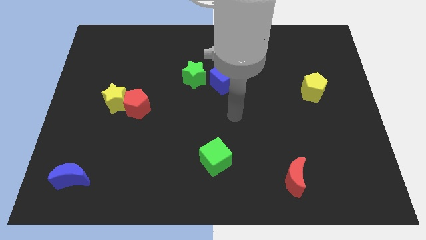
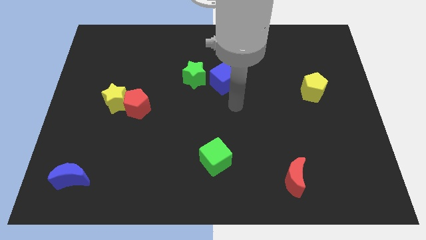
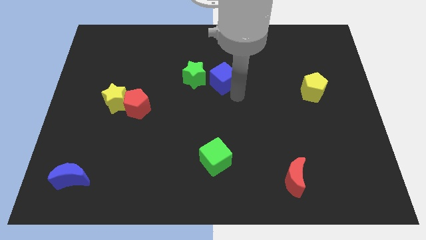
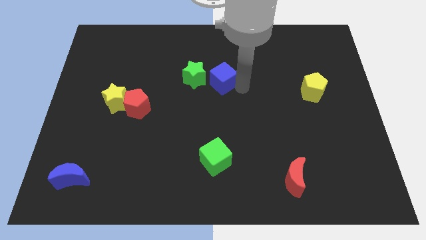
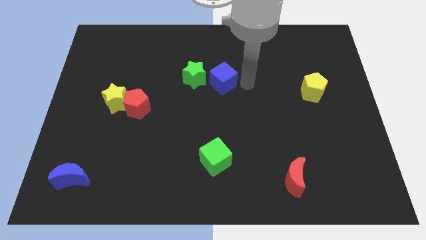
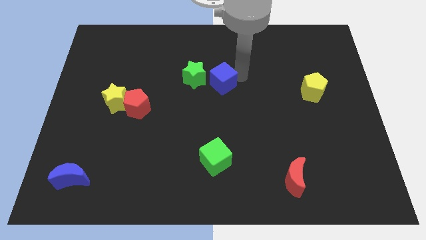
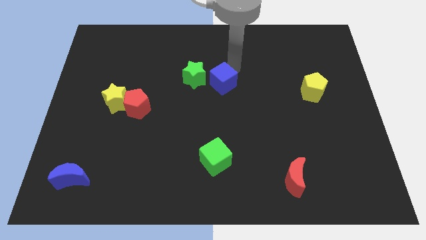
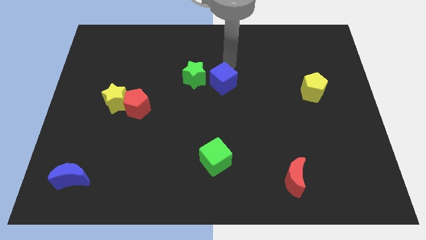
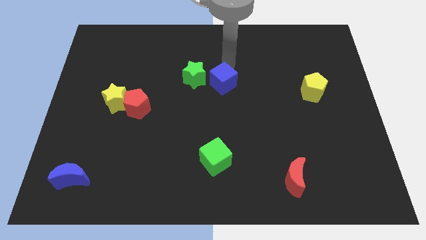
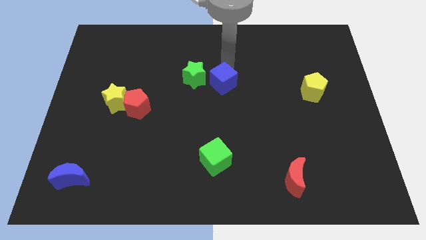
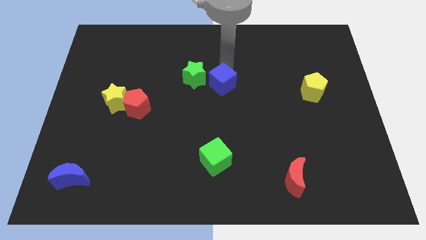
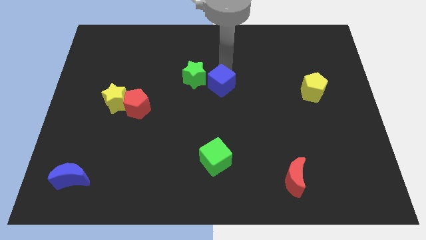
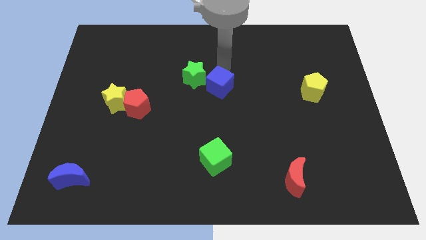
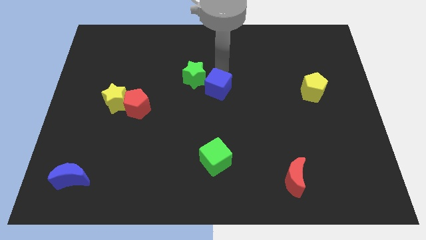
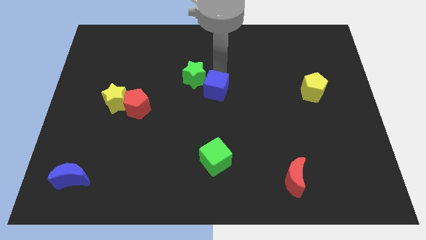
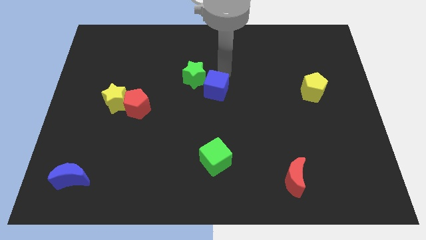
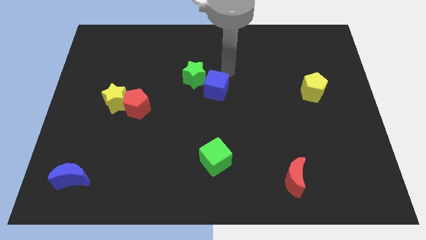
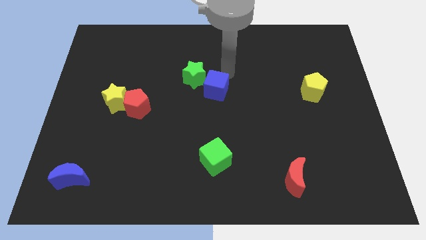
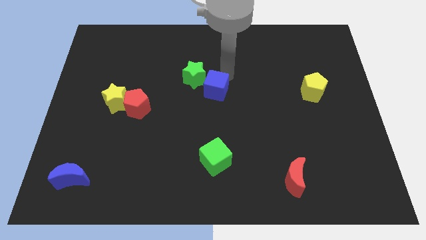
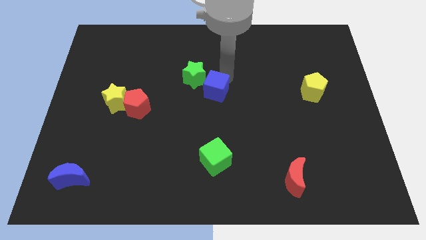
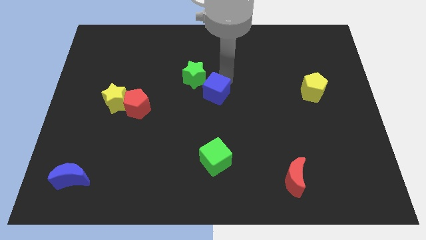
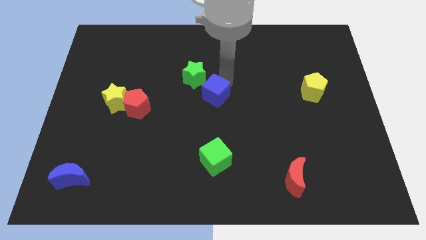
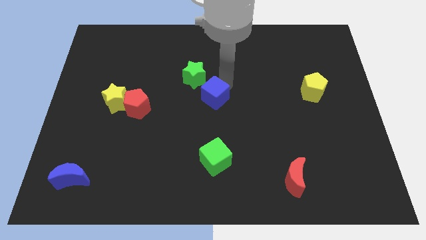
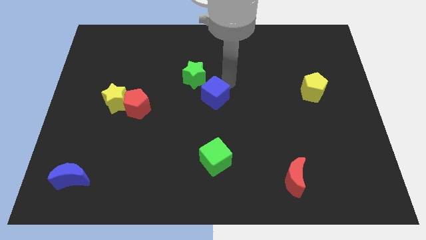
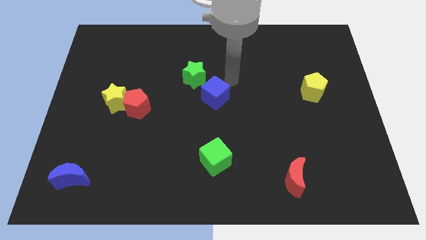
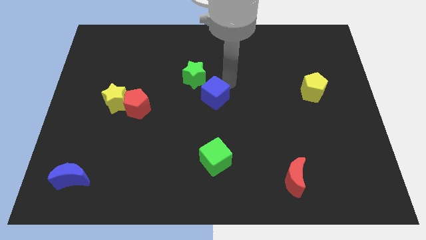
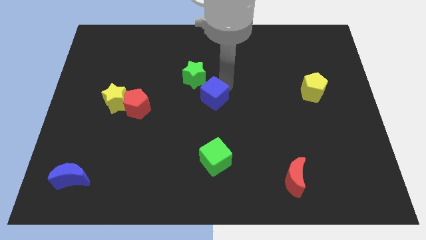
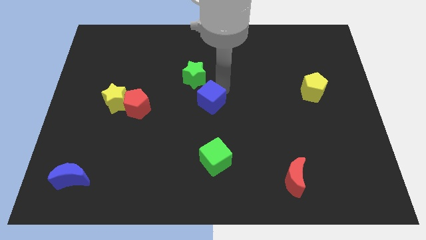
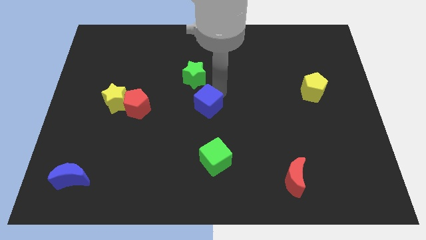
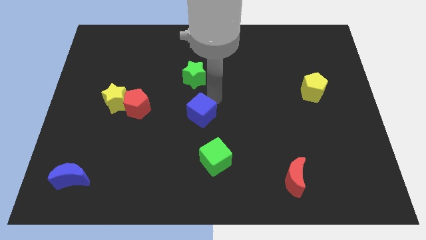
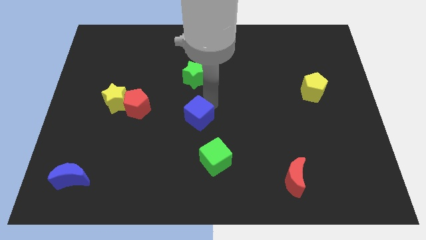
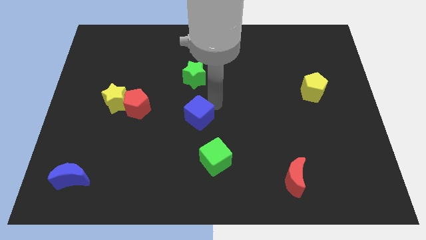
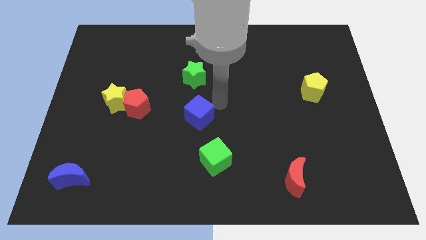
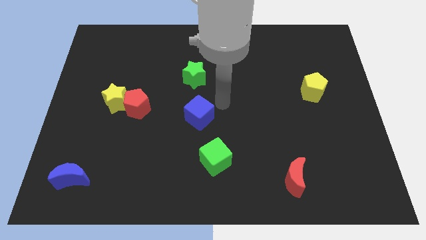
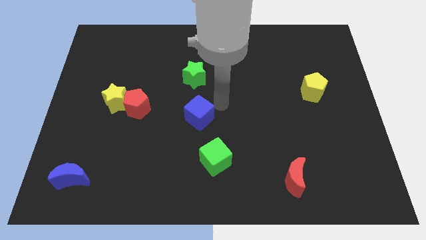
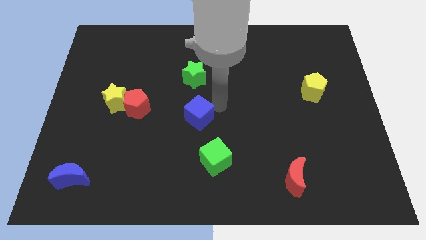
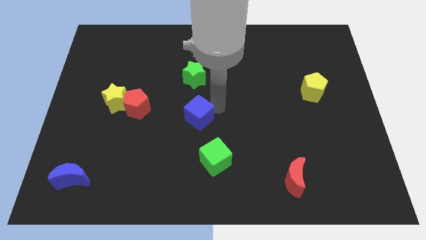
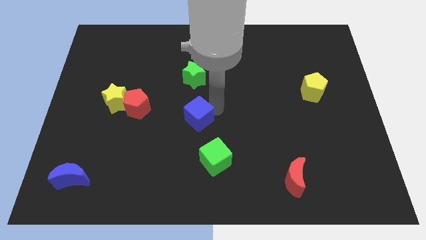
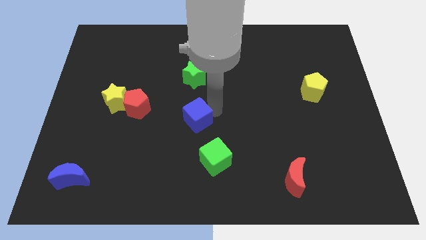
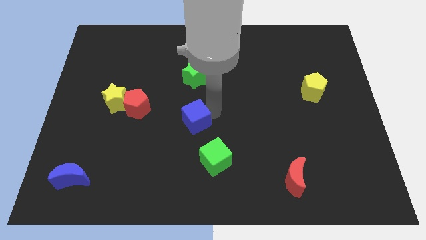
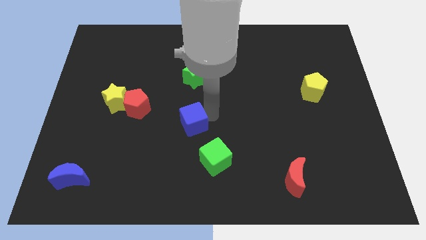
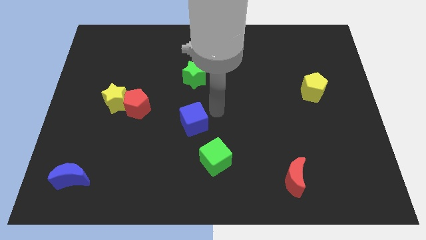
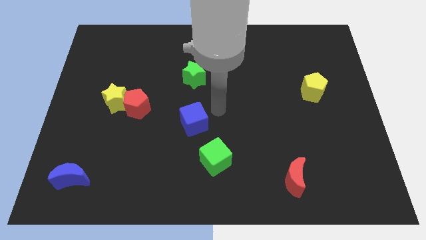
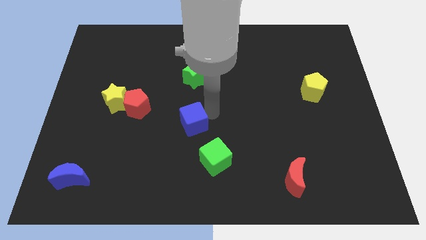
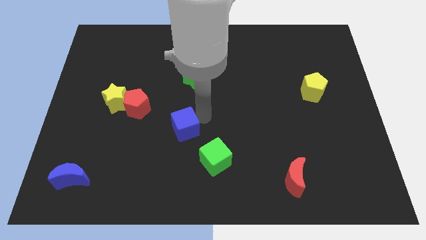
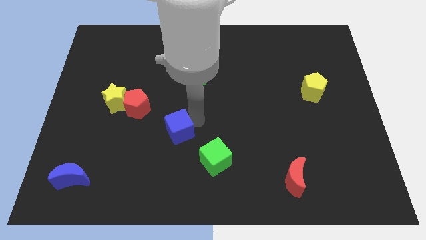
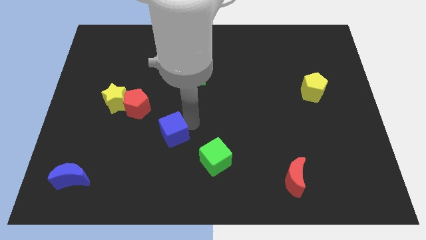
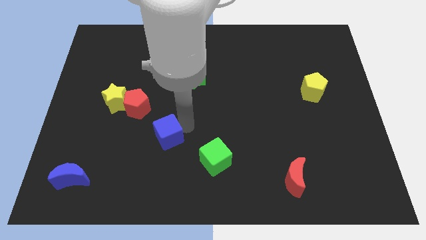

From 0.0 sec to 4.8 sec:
move the blue cube downwards and to the left

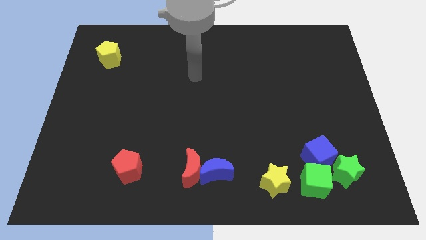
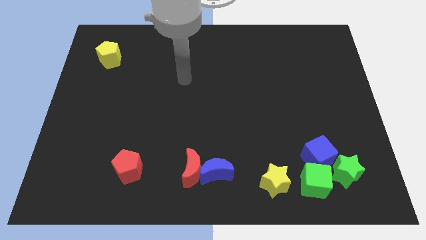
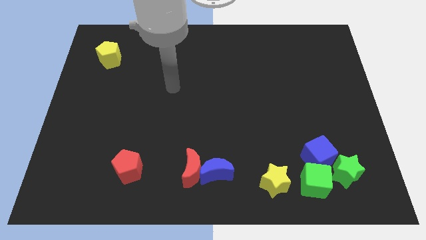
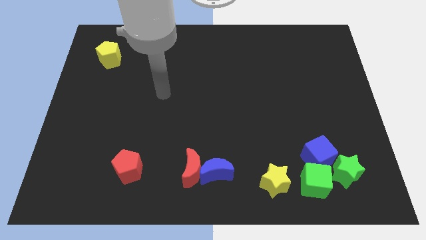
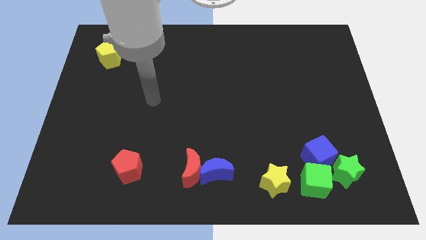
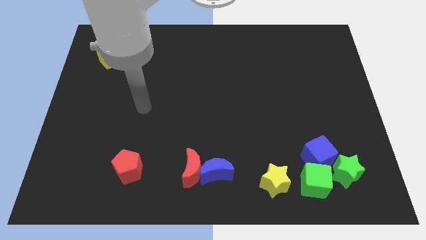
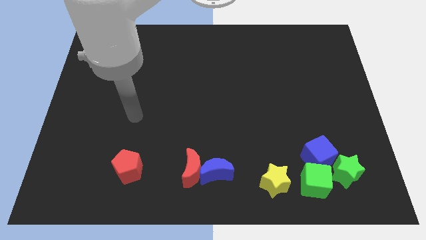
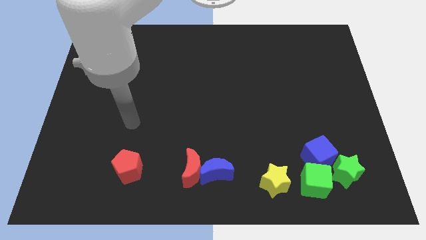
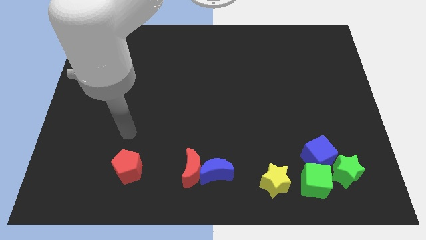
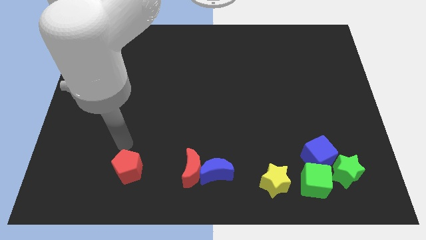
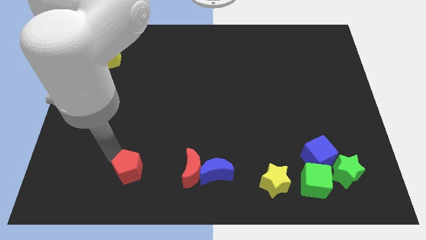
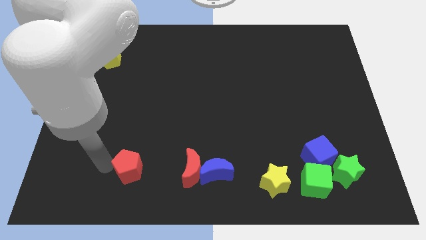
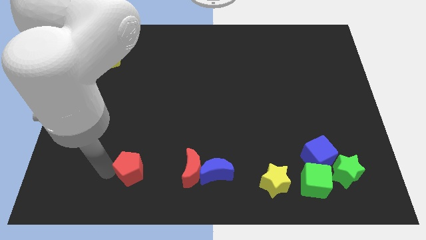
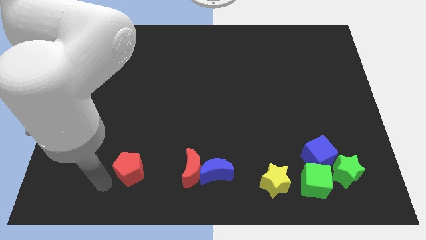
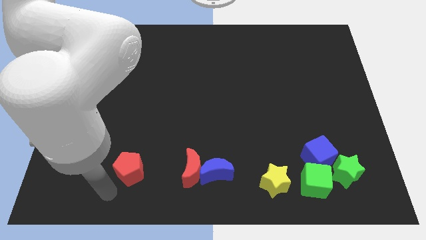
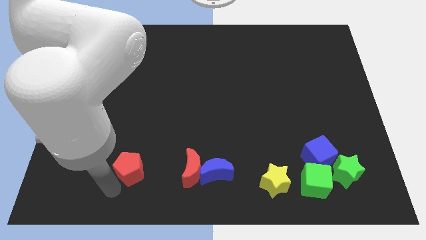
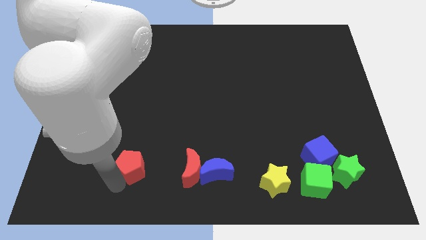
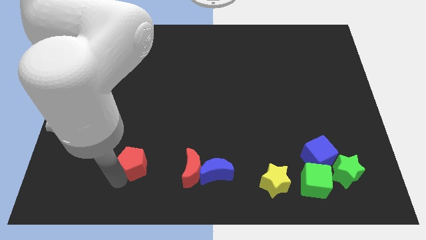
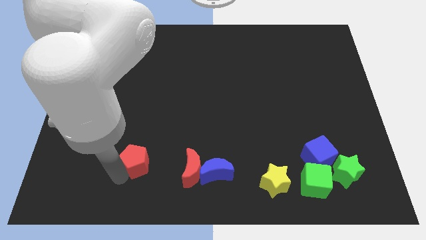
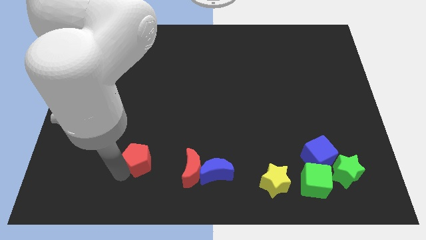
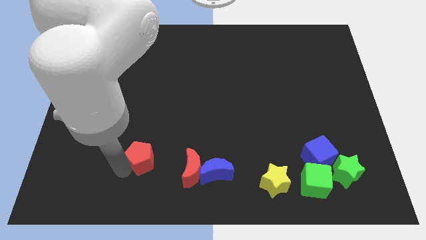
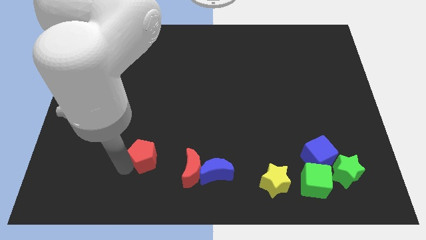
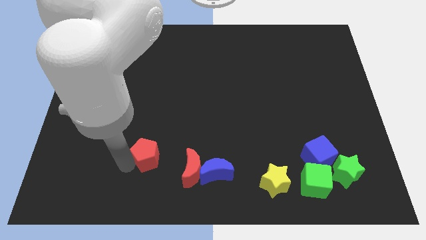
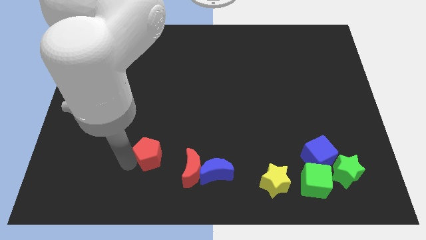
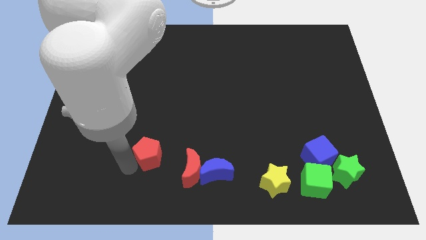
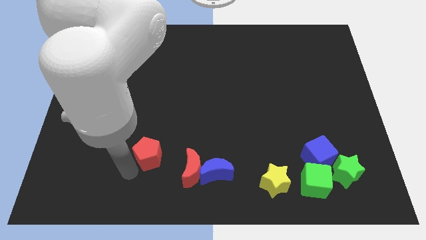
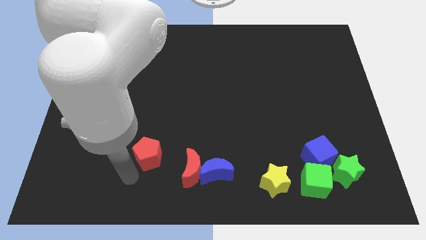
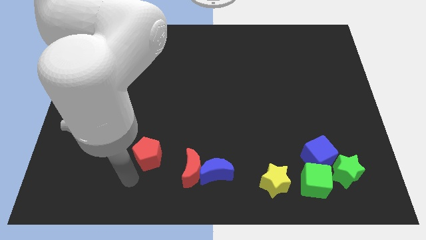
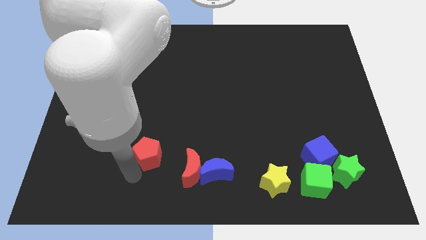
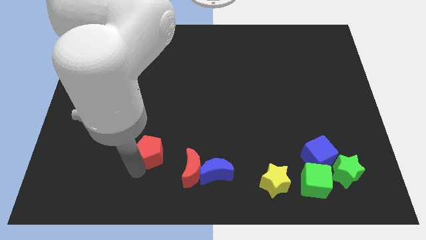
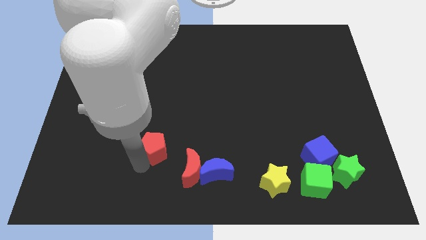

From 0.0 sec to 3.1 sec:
move the red pentagon somewhat upwards and then right

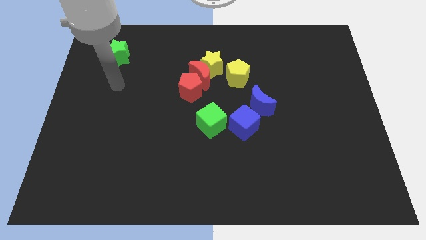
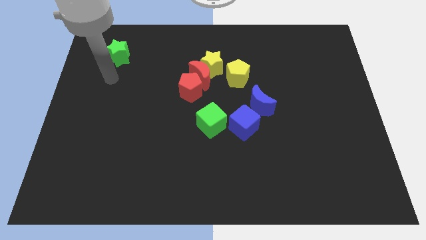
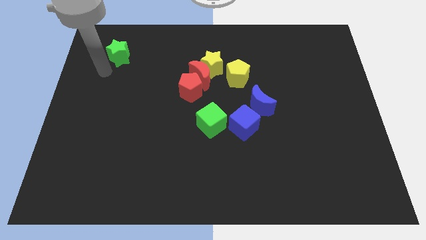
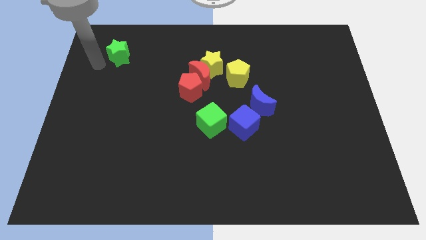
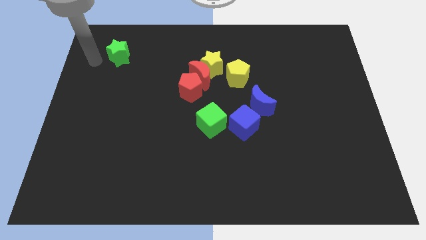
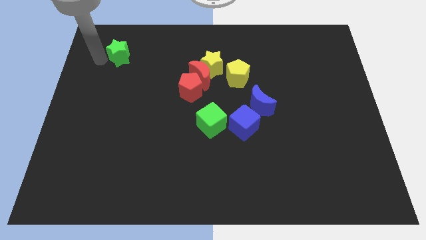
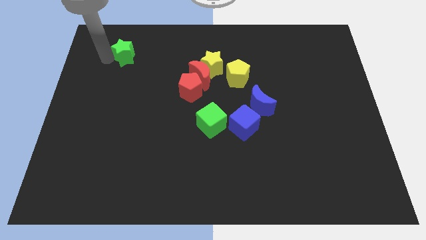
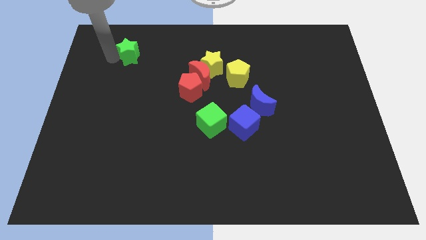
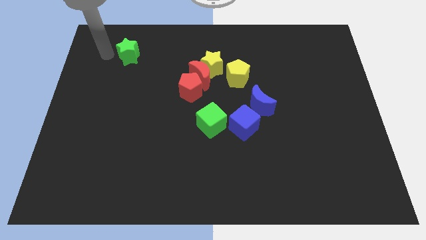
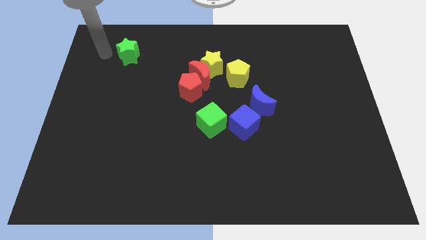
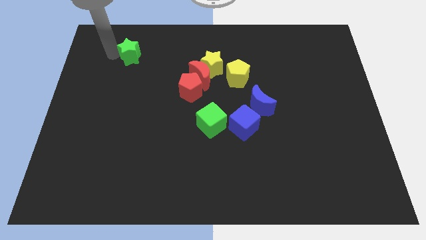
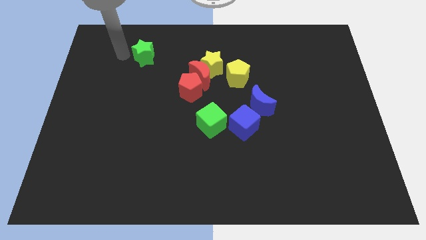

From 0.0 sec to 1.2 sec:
push the green star to the right a little
